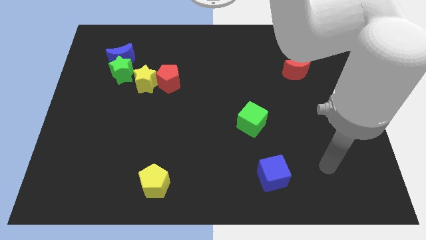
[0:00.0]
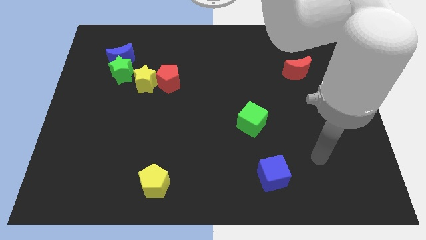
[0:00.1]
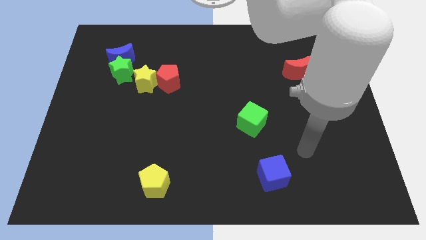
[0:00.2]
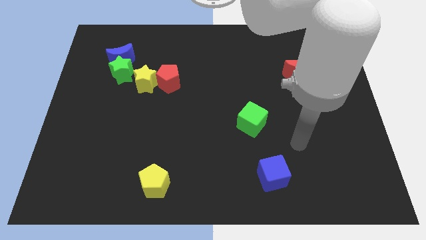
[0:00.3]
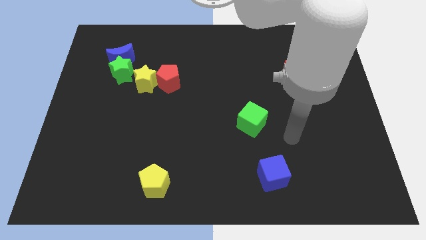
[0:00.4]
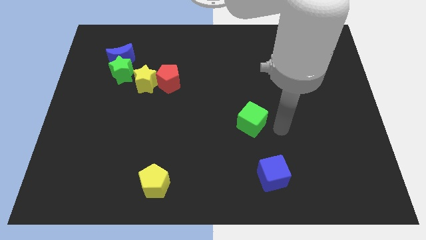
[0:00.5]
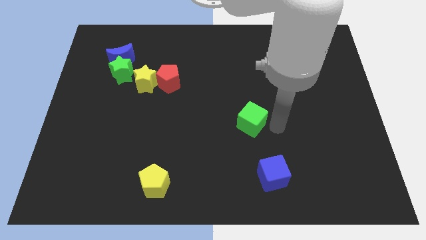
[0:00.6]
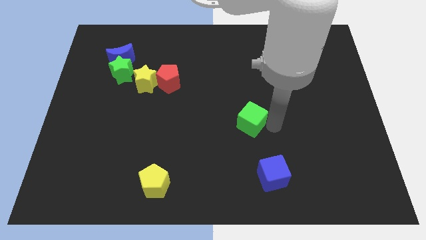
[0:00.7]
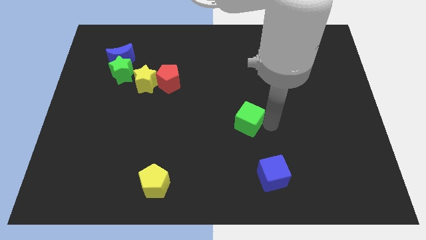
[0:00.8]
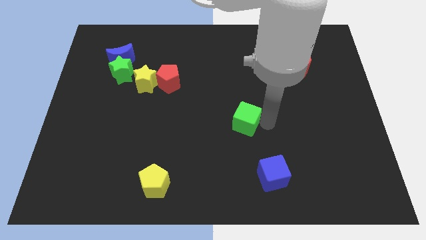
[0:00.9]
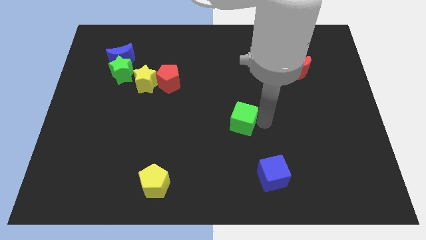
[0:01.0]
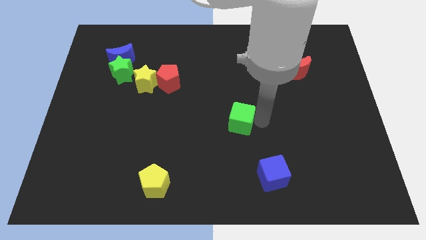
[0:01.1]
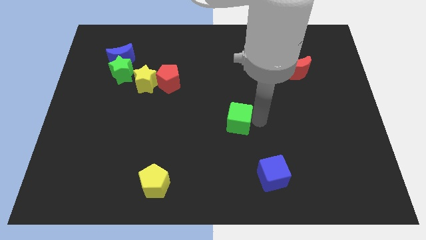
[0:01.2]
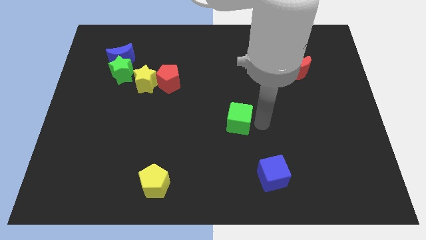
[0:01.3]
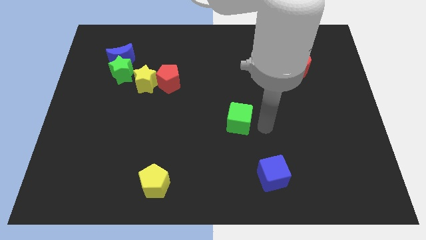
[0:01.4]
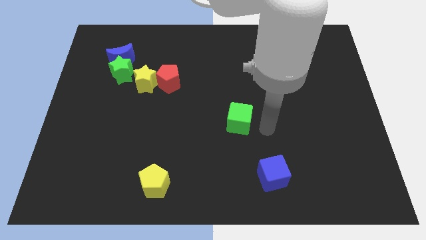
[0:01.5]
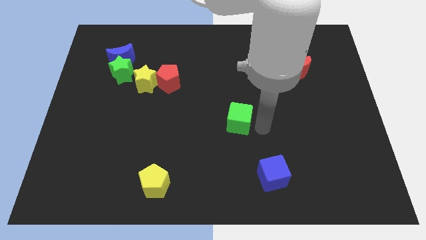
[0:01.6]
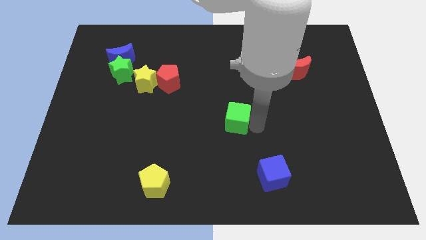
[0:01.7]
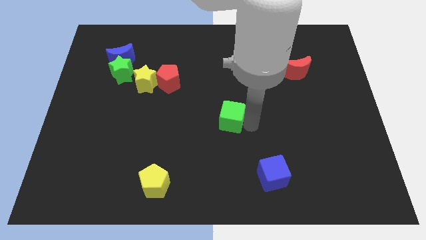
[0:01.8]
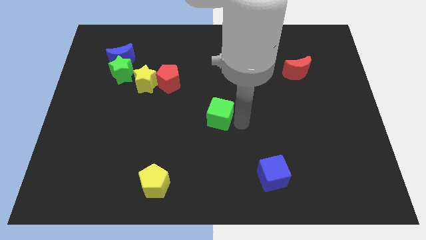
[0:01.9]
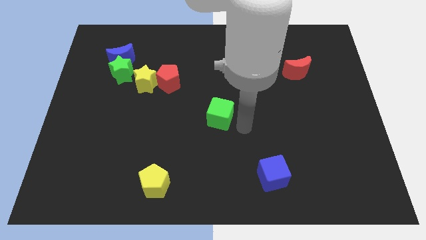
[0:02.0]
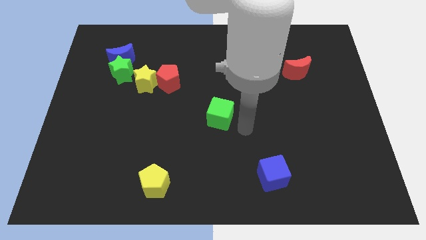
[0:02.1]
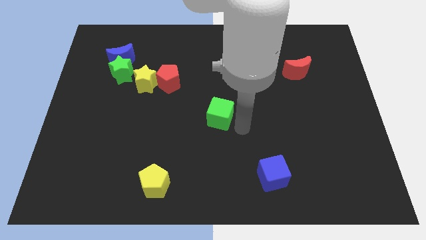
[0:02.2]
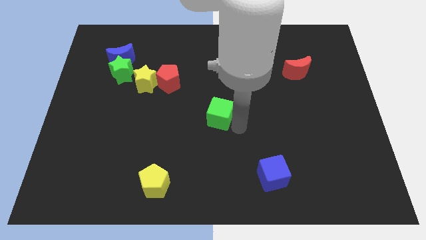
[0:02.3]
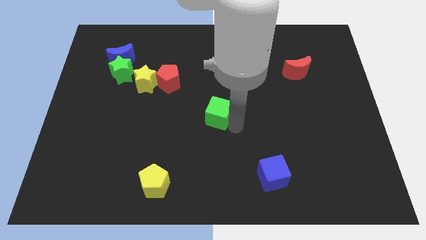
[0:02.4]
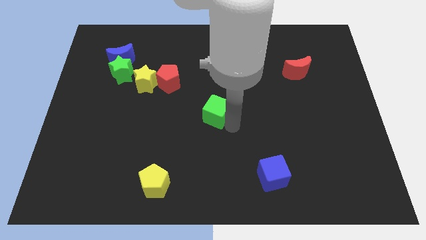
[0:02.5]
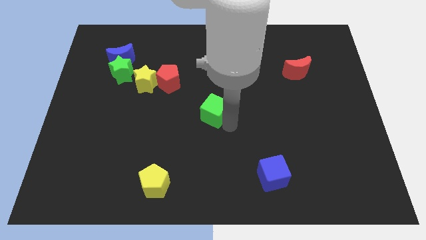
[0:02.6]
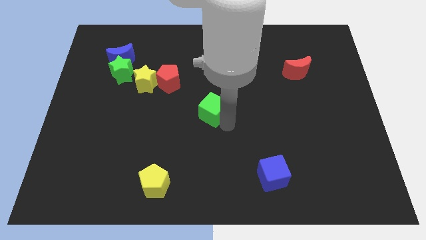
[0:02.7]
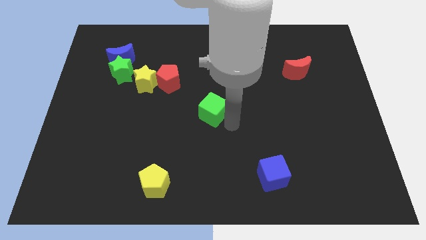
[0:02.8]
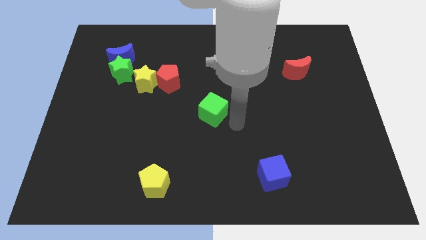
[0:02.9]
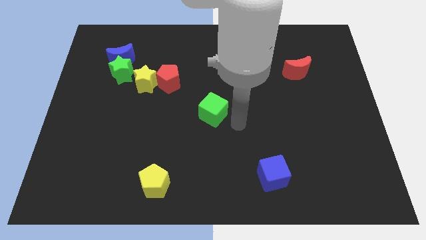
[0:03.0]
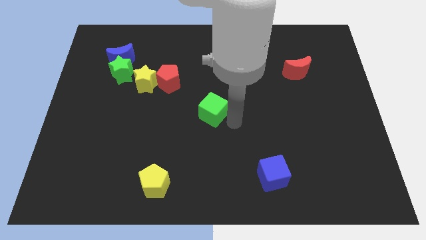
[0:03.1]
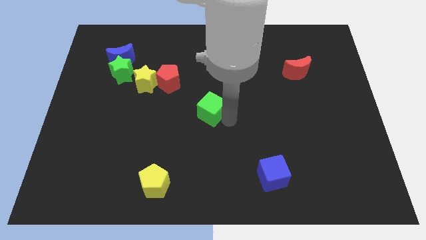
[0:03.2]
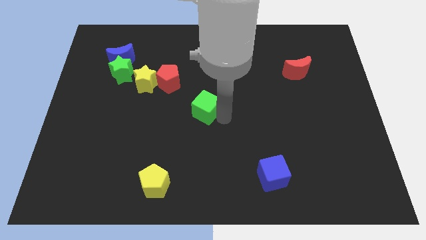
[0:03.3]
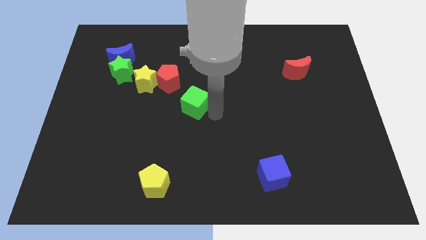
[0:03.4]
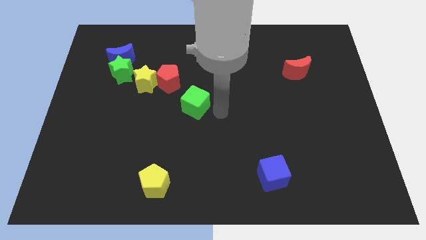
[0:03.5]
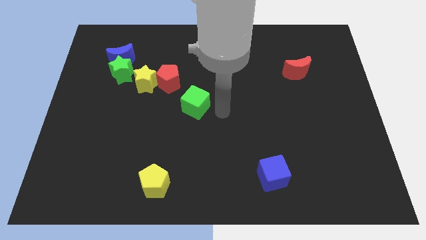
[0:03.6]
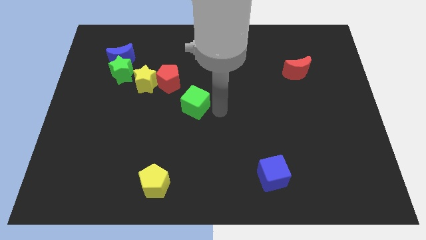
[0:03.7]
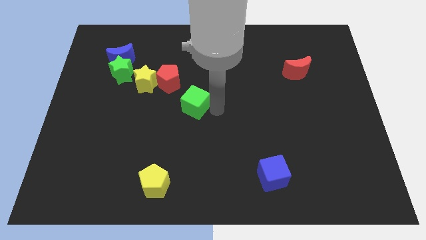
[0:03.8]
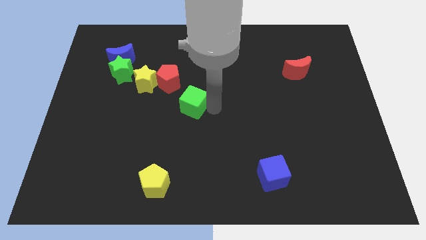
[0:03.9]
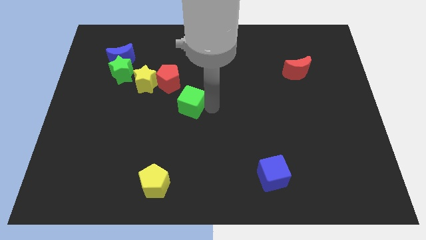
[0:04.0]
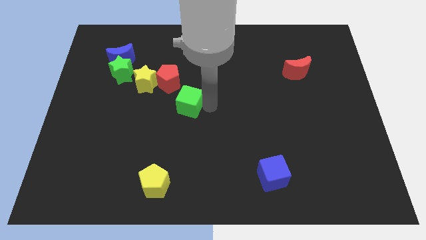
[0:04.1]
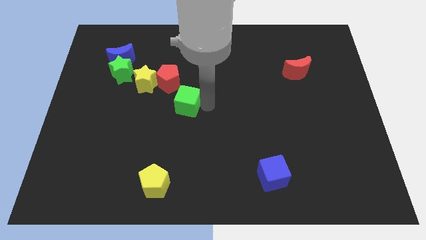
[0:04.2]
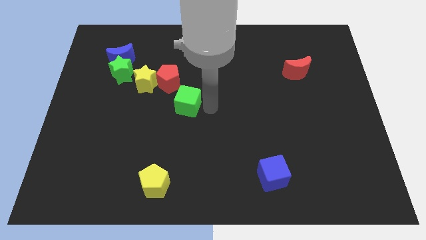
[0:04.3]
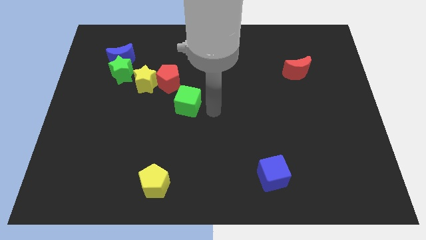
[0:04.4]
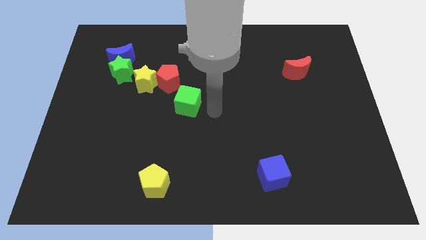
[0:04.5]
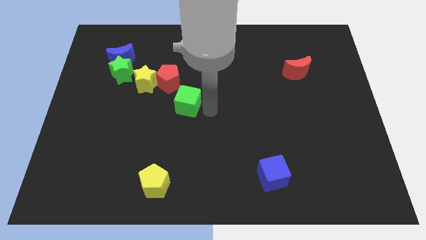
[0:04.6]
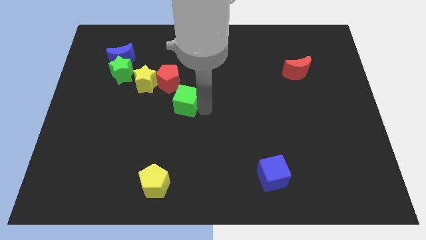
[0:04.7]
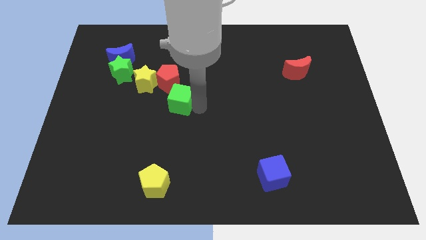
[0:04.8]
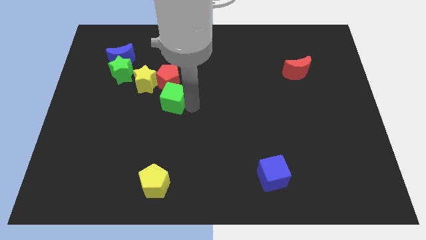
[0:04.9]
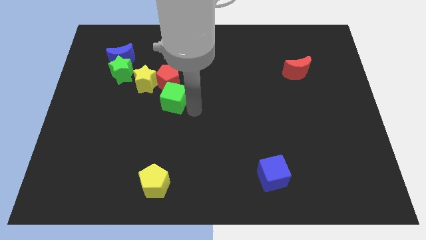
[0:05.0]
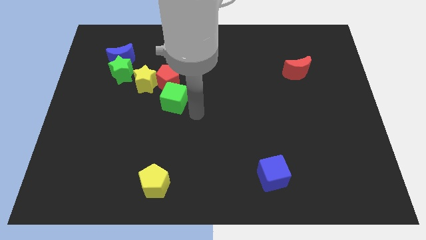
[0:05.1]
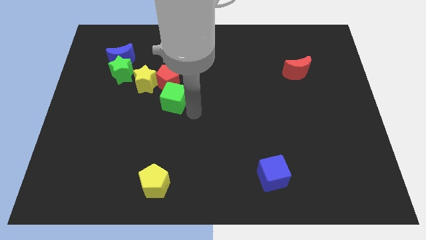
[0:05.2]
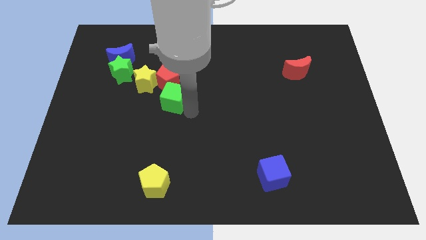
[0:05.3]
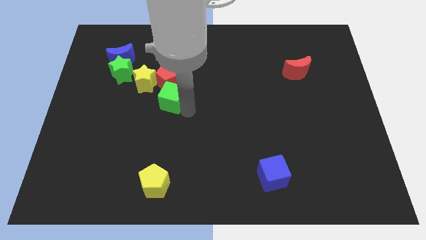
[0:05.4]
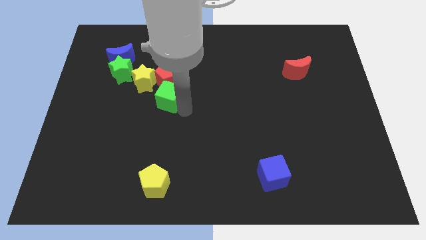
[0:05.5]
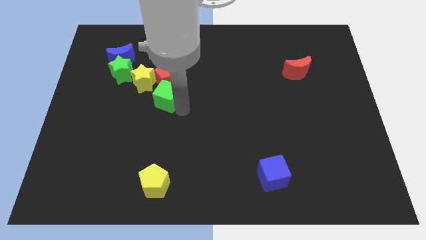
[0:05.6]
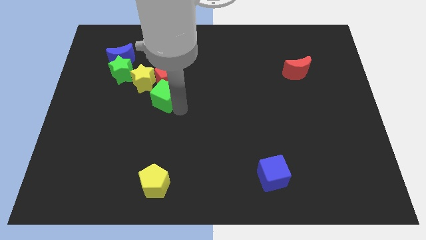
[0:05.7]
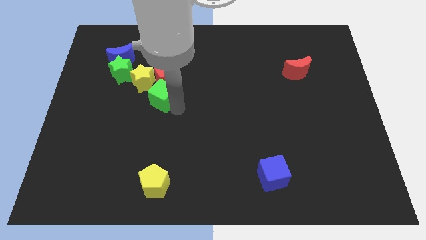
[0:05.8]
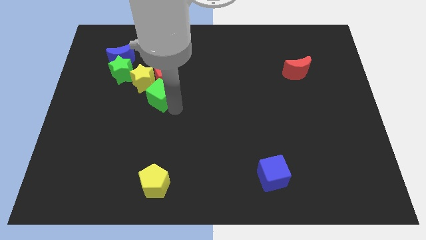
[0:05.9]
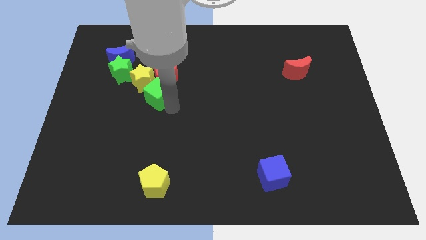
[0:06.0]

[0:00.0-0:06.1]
slide the green cube close to the yellow star
